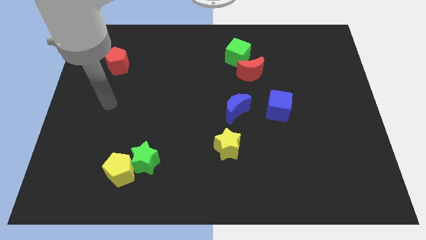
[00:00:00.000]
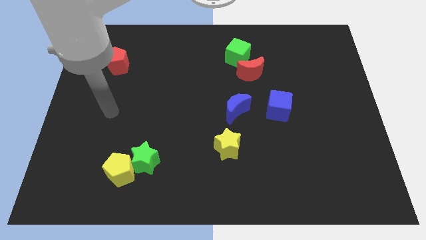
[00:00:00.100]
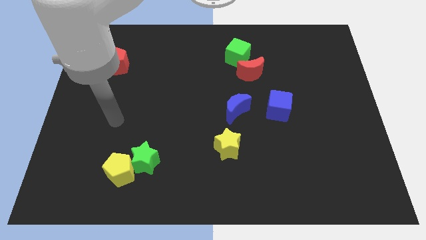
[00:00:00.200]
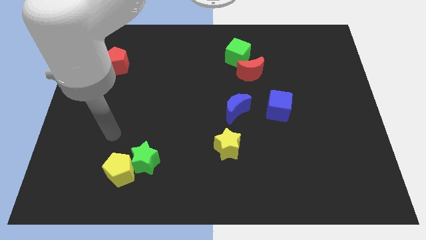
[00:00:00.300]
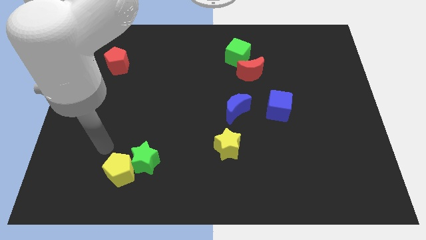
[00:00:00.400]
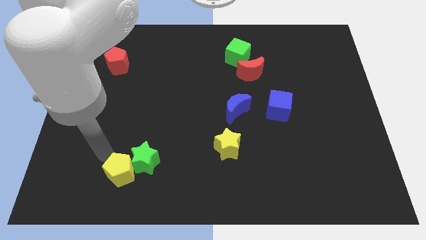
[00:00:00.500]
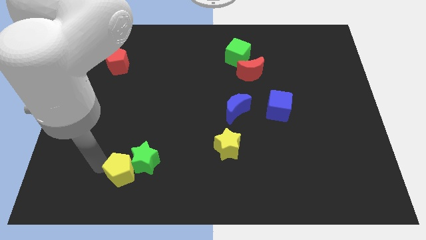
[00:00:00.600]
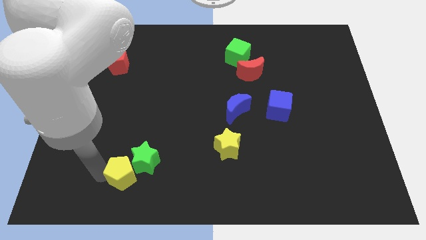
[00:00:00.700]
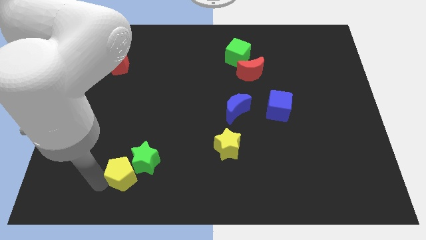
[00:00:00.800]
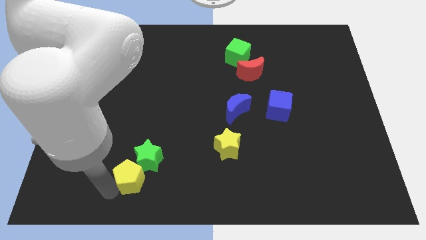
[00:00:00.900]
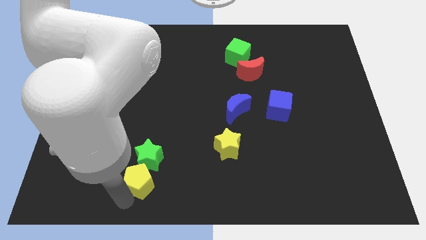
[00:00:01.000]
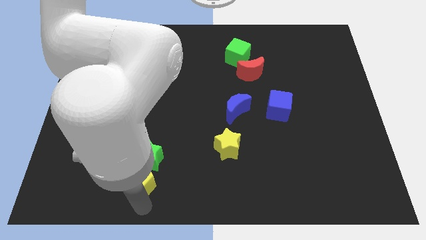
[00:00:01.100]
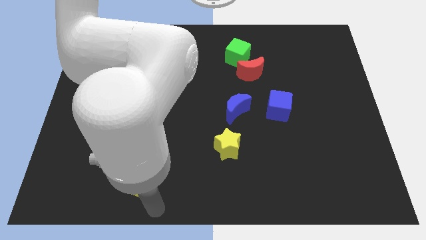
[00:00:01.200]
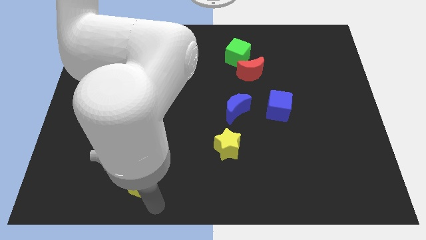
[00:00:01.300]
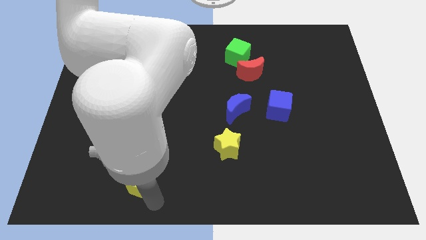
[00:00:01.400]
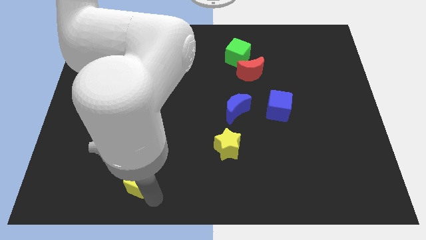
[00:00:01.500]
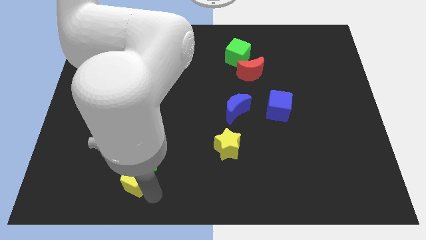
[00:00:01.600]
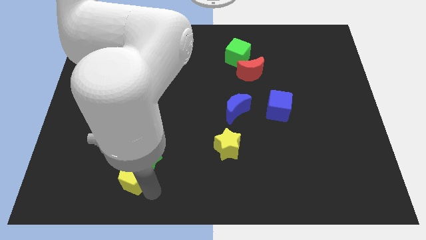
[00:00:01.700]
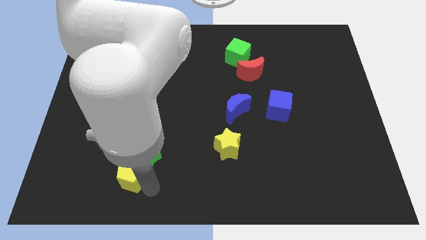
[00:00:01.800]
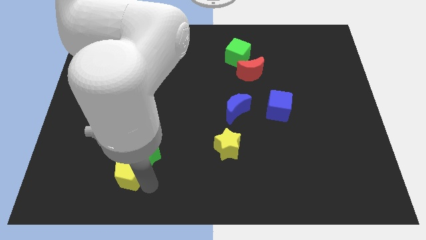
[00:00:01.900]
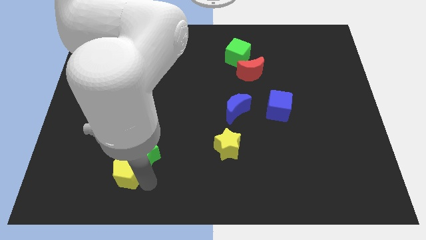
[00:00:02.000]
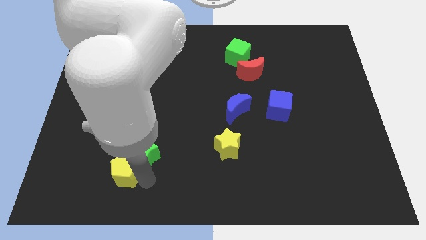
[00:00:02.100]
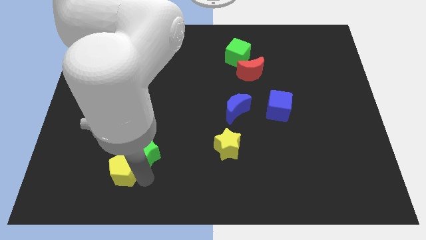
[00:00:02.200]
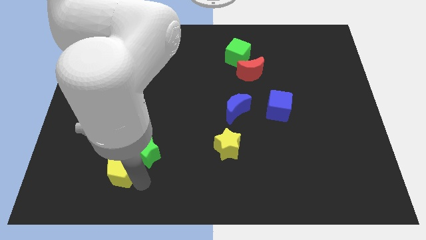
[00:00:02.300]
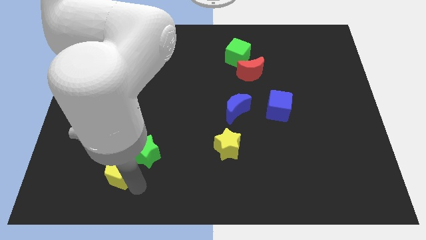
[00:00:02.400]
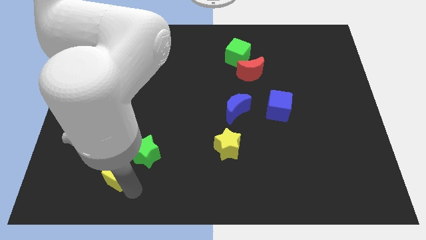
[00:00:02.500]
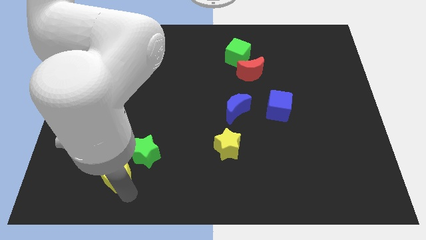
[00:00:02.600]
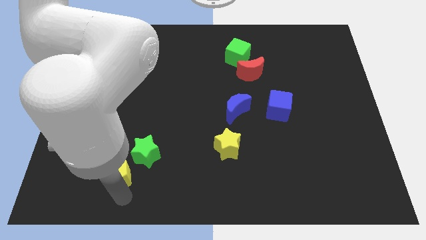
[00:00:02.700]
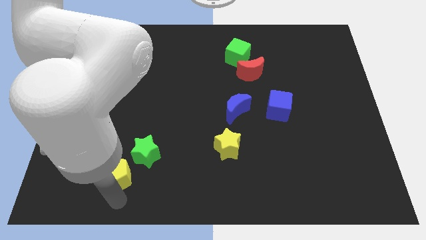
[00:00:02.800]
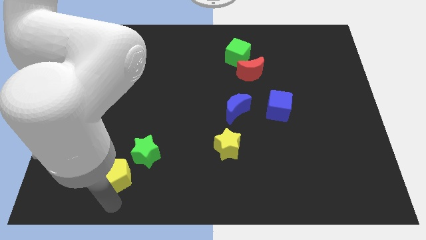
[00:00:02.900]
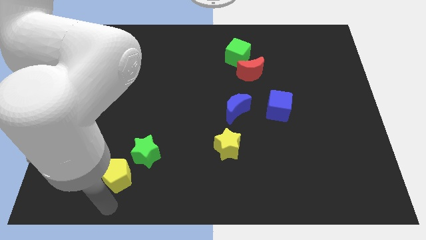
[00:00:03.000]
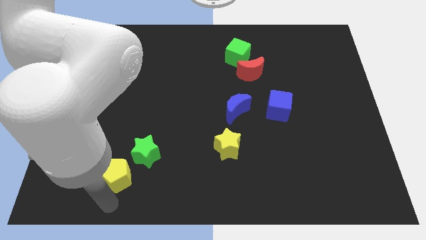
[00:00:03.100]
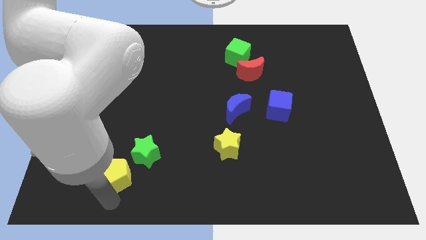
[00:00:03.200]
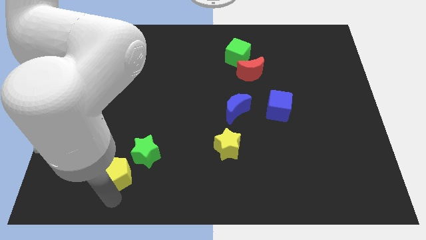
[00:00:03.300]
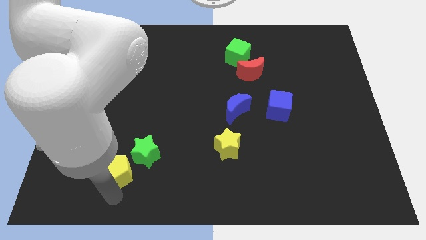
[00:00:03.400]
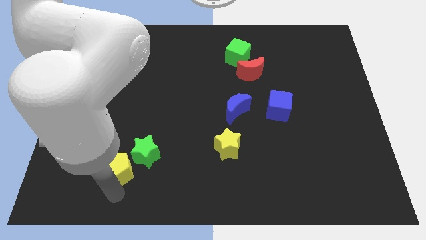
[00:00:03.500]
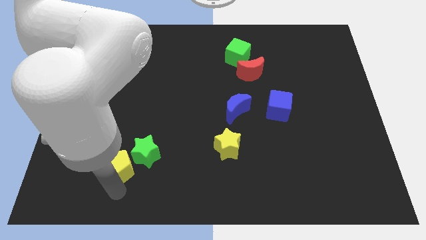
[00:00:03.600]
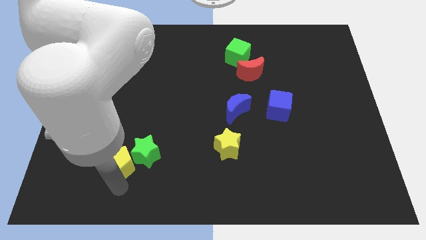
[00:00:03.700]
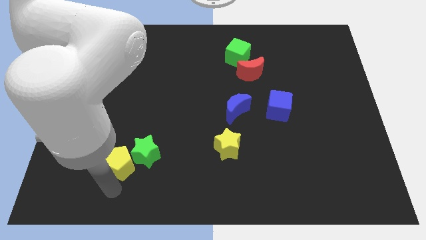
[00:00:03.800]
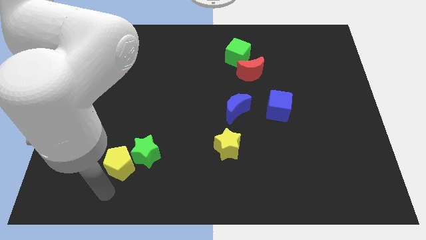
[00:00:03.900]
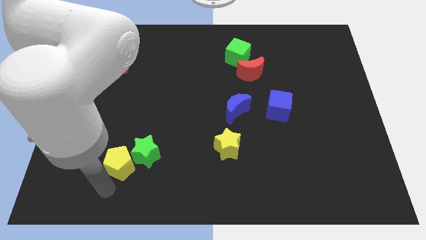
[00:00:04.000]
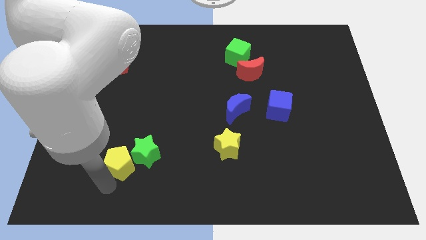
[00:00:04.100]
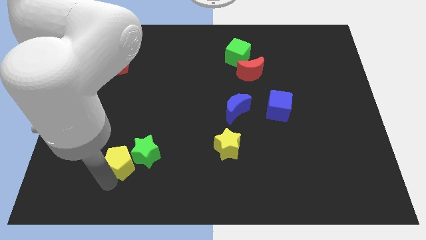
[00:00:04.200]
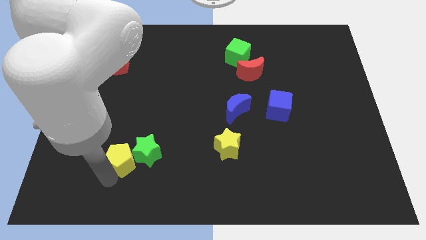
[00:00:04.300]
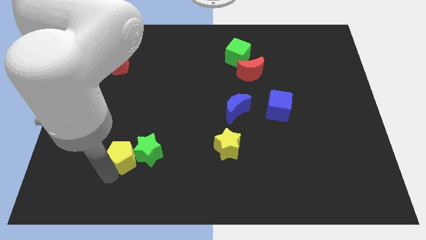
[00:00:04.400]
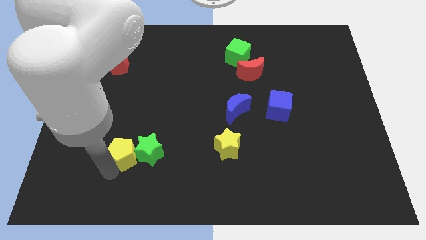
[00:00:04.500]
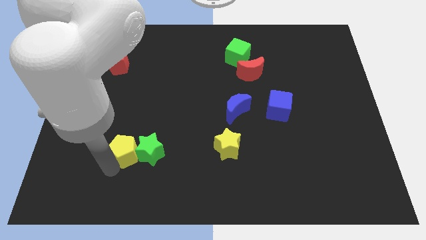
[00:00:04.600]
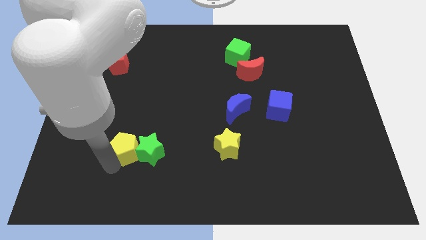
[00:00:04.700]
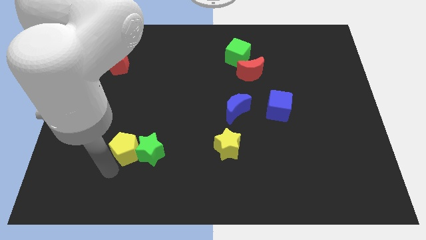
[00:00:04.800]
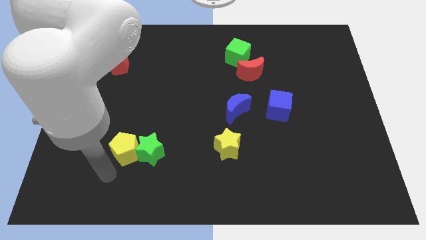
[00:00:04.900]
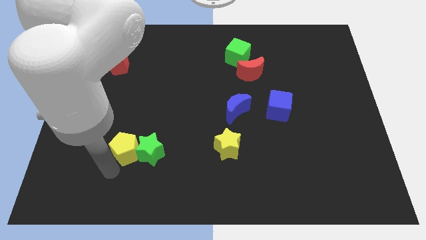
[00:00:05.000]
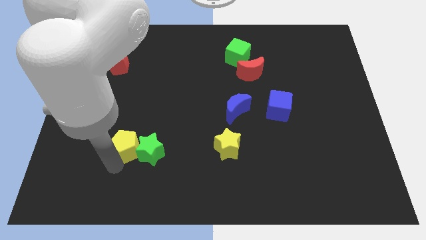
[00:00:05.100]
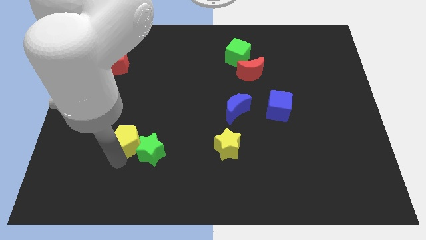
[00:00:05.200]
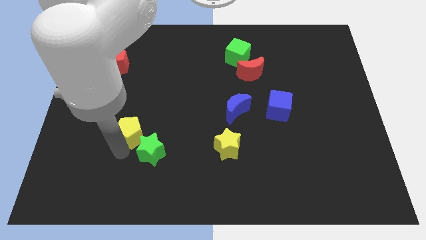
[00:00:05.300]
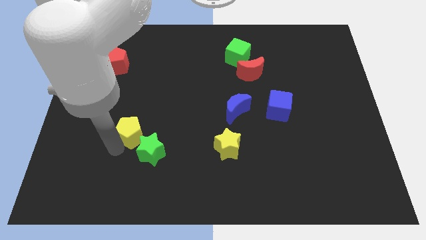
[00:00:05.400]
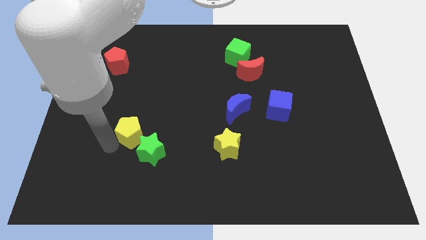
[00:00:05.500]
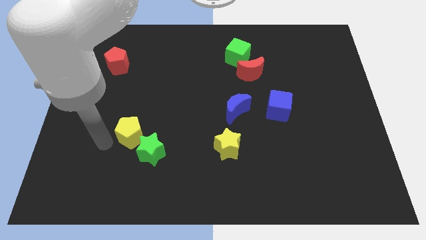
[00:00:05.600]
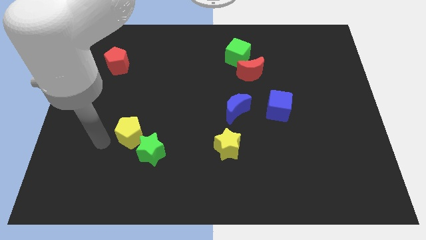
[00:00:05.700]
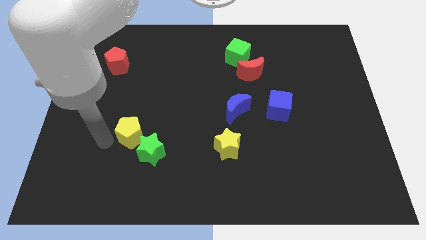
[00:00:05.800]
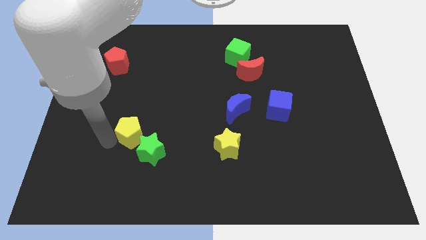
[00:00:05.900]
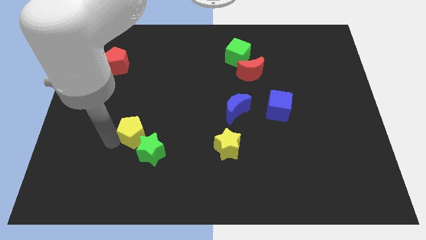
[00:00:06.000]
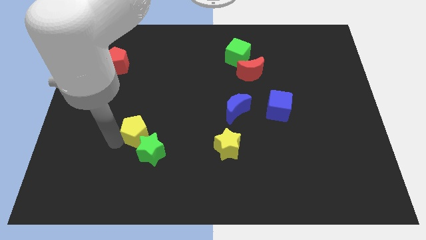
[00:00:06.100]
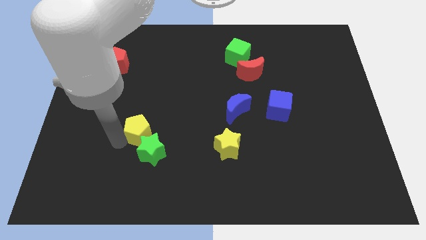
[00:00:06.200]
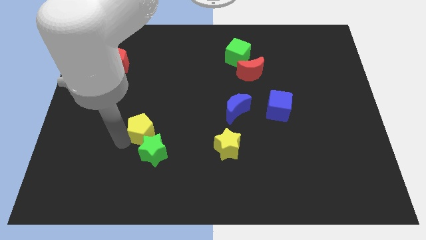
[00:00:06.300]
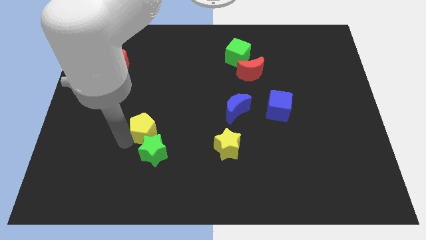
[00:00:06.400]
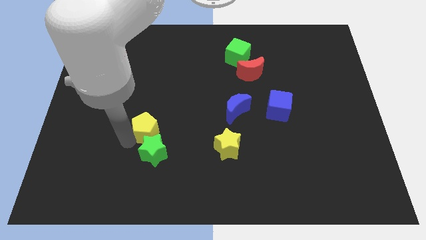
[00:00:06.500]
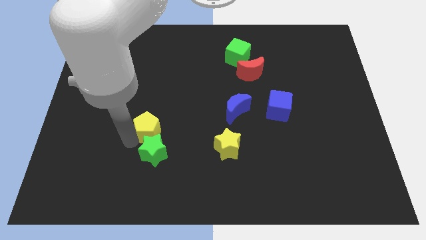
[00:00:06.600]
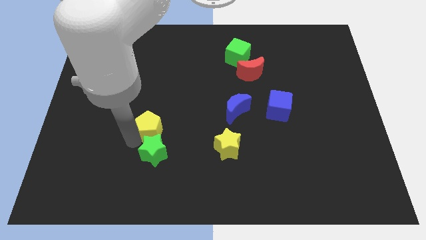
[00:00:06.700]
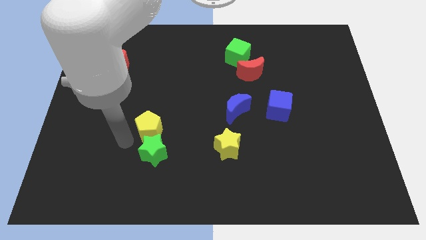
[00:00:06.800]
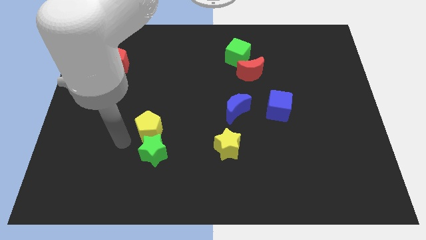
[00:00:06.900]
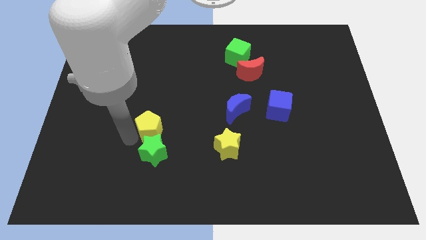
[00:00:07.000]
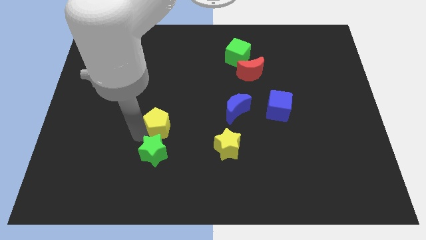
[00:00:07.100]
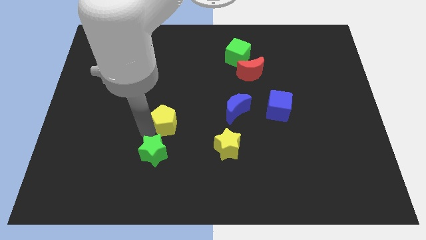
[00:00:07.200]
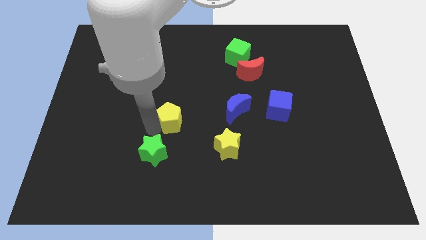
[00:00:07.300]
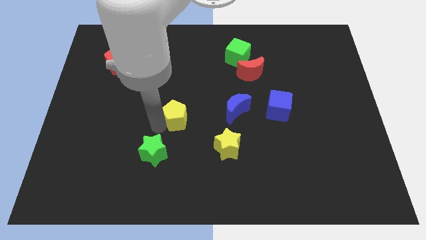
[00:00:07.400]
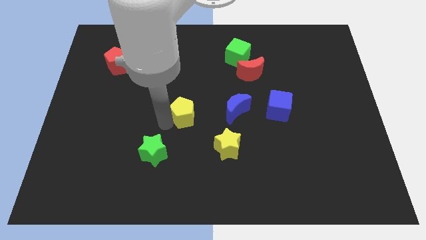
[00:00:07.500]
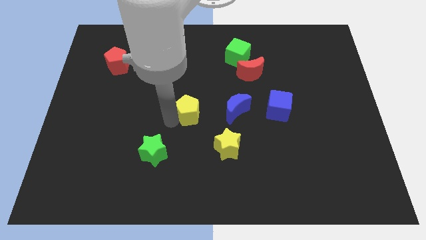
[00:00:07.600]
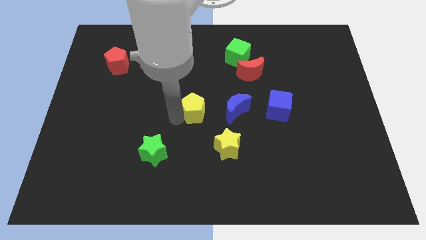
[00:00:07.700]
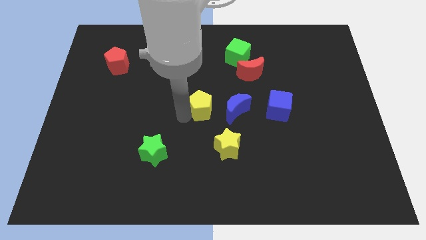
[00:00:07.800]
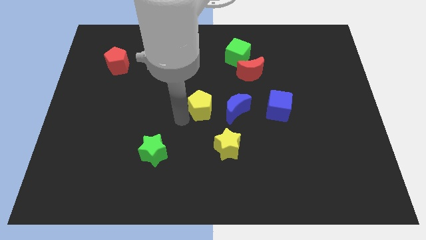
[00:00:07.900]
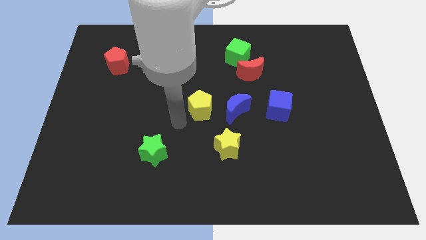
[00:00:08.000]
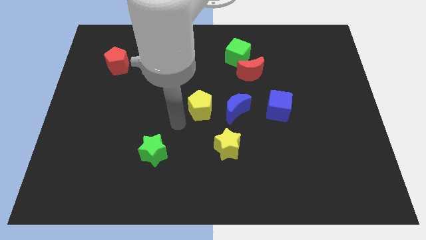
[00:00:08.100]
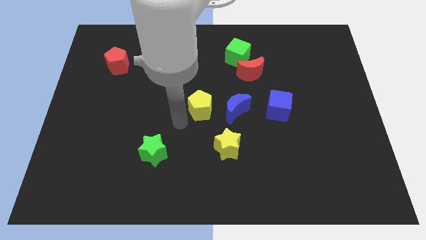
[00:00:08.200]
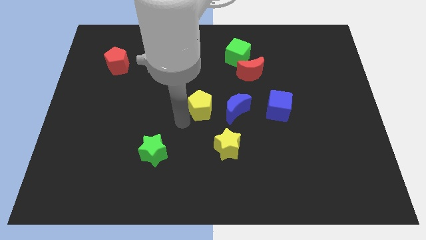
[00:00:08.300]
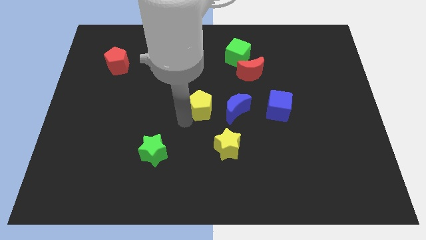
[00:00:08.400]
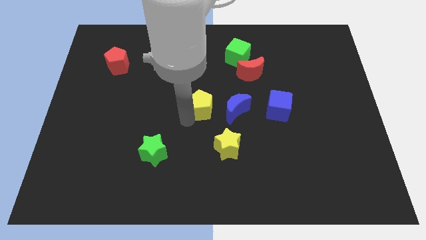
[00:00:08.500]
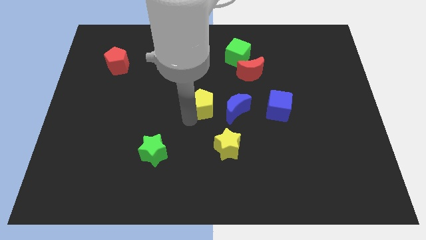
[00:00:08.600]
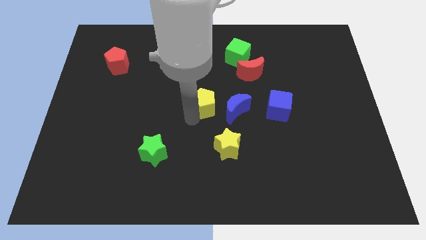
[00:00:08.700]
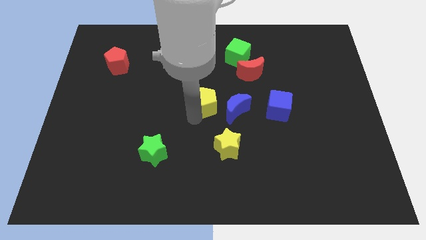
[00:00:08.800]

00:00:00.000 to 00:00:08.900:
move the yellow pentagon above the yellow star
